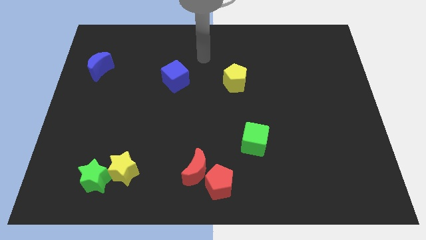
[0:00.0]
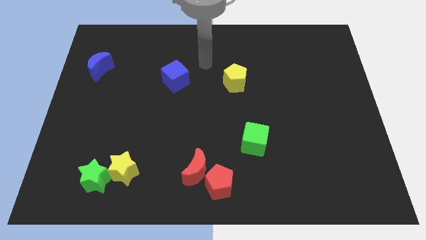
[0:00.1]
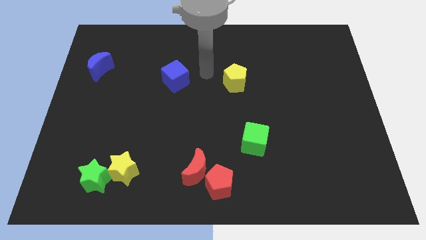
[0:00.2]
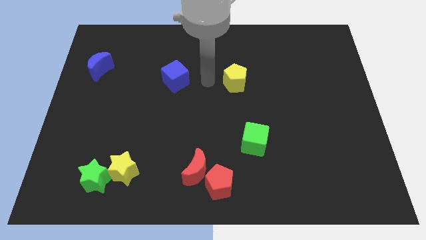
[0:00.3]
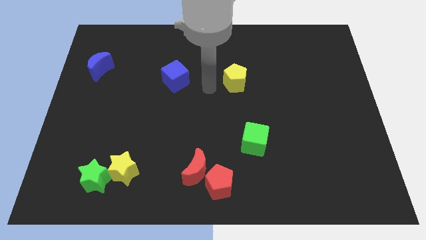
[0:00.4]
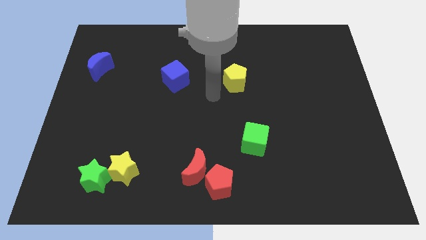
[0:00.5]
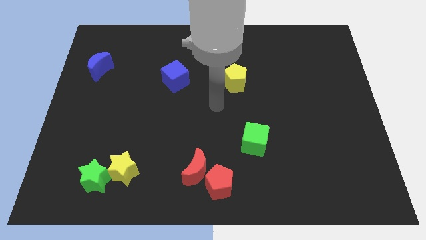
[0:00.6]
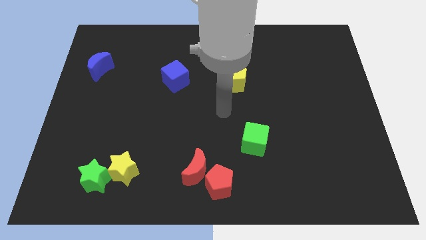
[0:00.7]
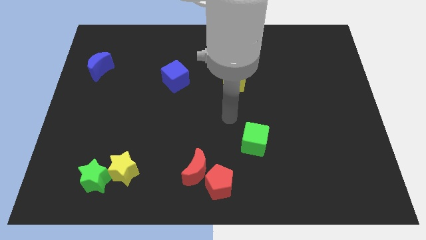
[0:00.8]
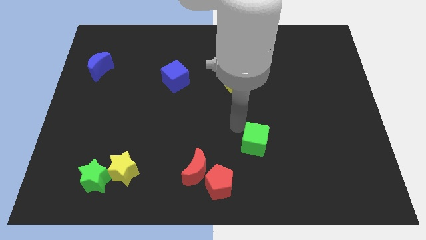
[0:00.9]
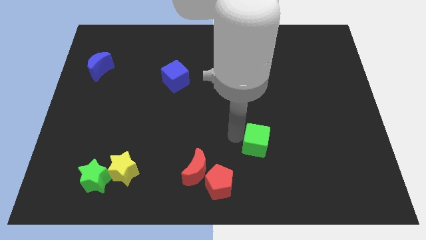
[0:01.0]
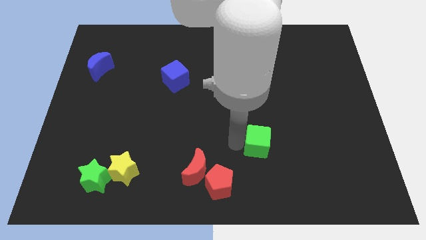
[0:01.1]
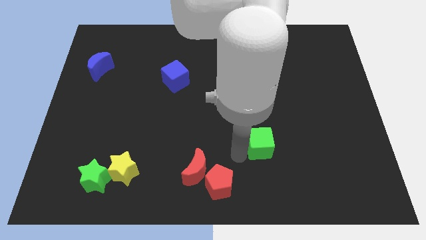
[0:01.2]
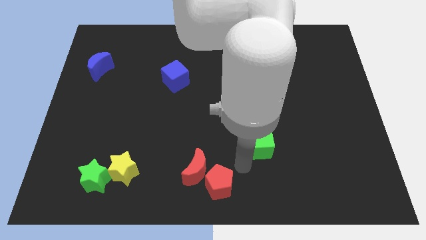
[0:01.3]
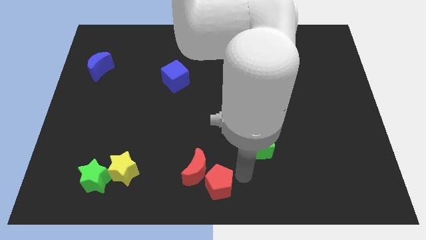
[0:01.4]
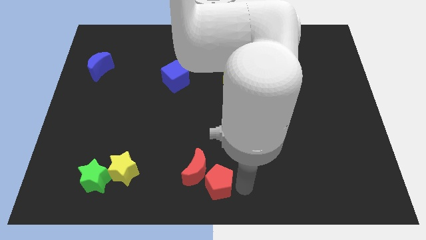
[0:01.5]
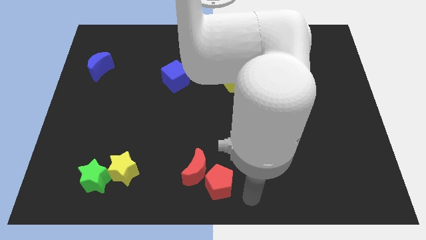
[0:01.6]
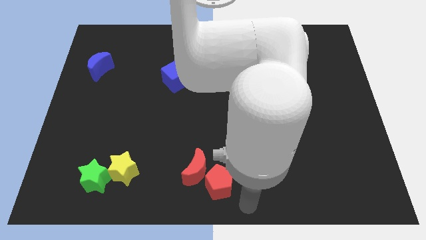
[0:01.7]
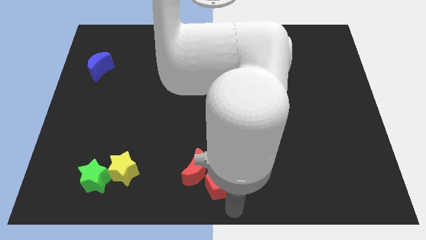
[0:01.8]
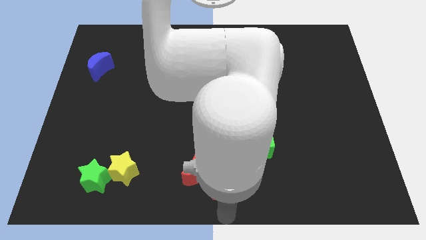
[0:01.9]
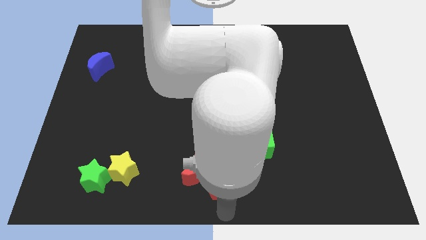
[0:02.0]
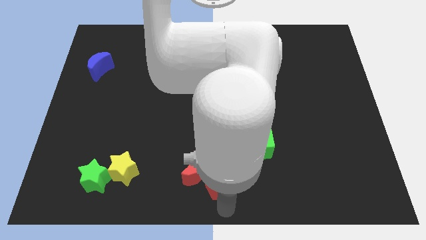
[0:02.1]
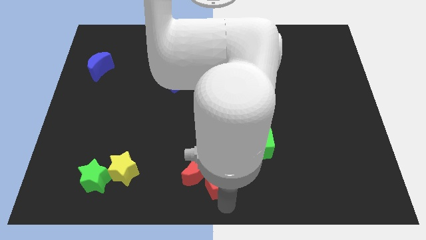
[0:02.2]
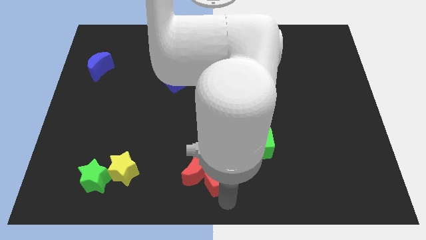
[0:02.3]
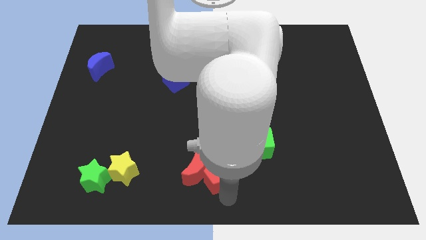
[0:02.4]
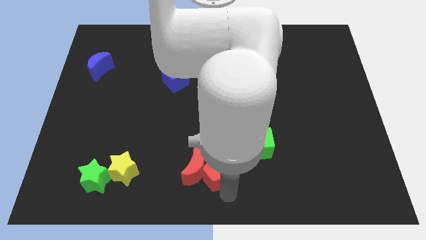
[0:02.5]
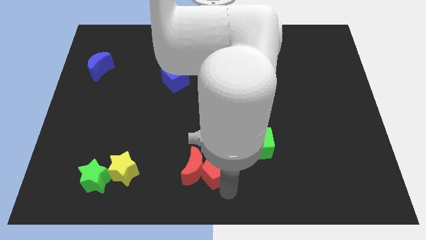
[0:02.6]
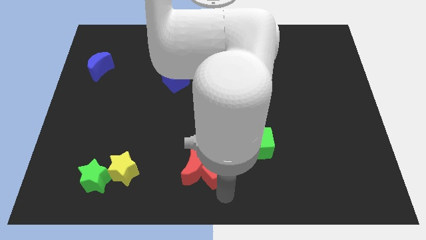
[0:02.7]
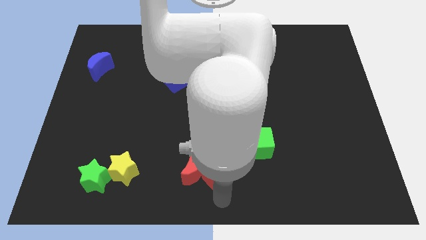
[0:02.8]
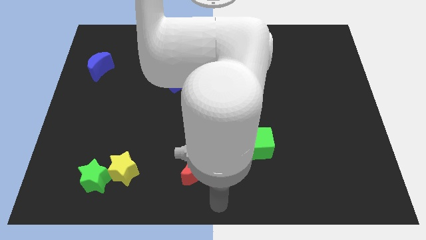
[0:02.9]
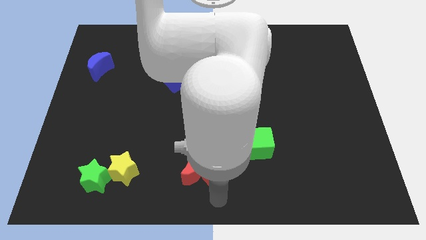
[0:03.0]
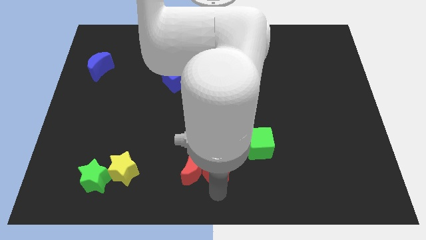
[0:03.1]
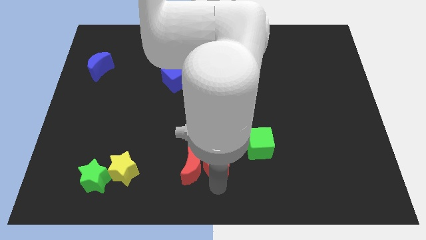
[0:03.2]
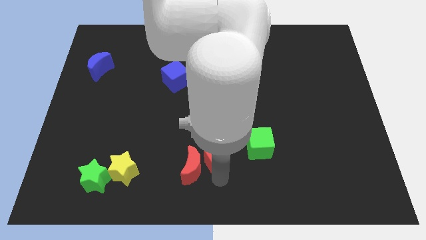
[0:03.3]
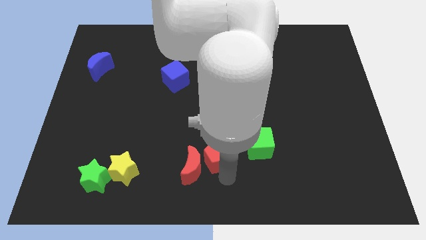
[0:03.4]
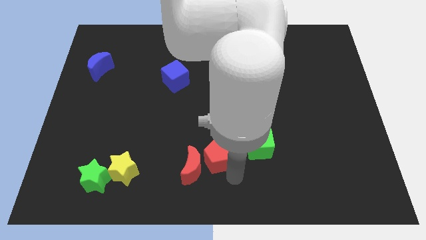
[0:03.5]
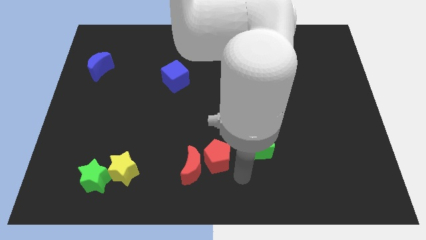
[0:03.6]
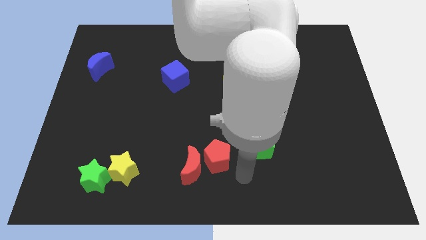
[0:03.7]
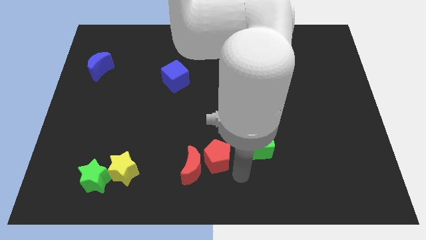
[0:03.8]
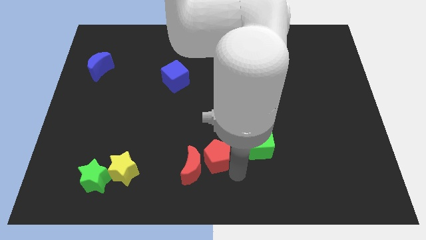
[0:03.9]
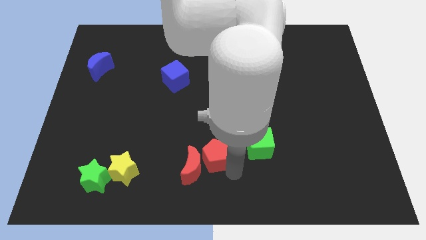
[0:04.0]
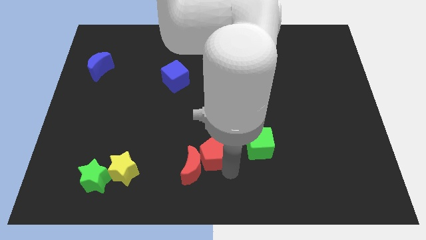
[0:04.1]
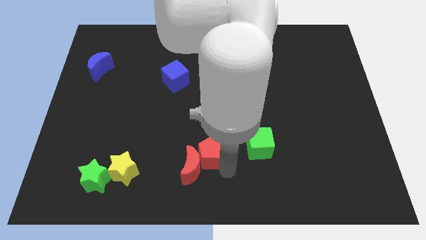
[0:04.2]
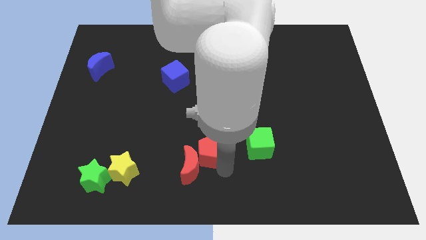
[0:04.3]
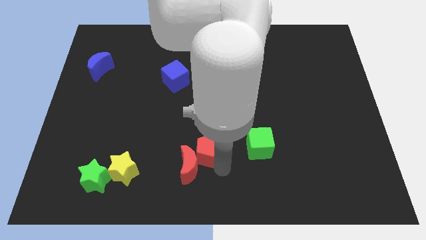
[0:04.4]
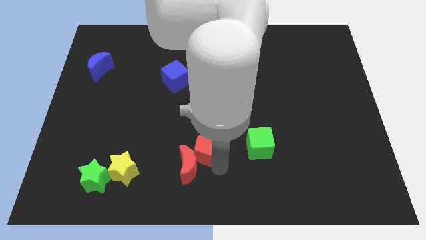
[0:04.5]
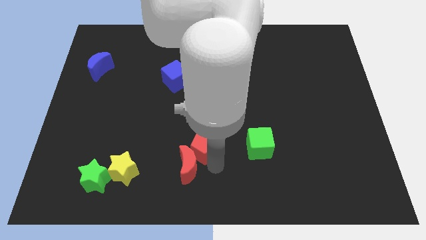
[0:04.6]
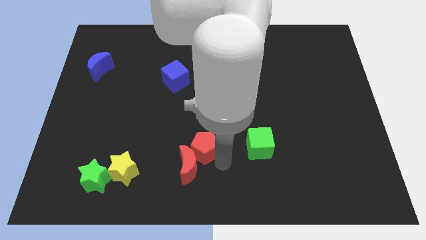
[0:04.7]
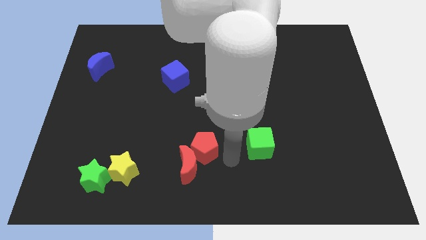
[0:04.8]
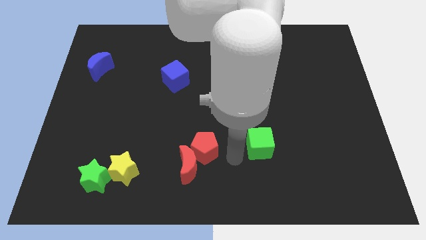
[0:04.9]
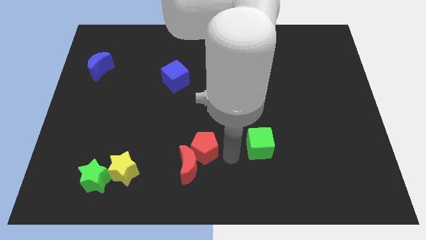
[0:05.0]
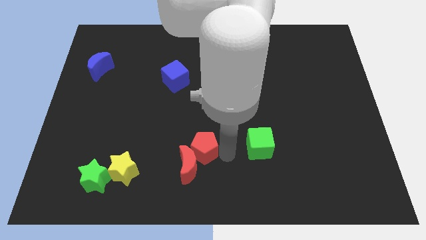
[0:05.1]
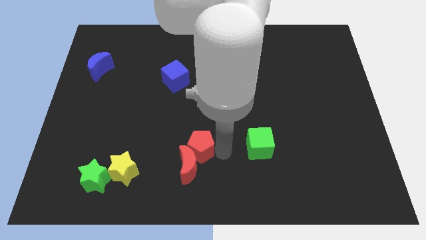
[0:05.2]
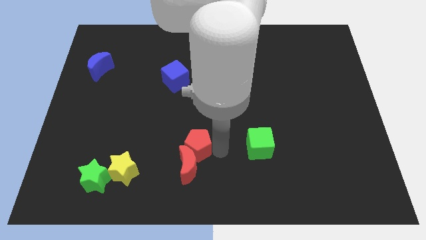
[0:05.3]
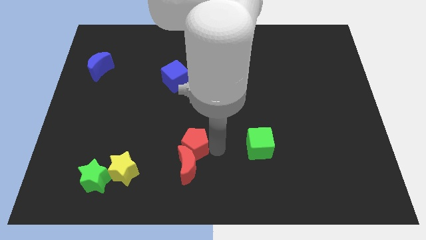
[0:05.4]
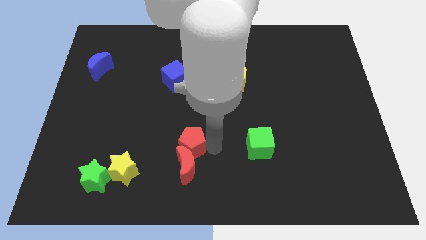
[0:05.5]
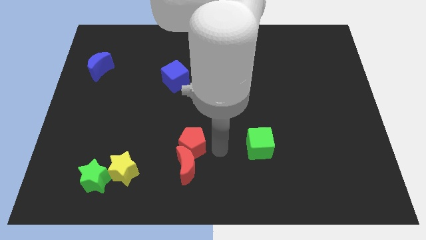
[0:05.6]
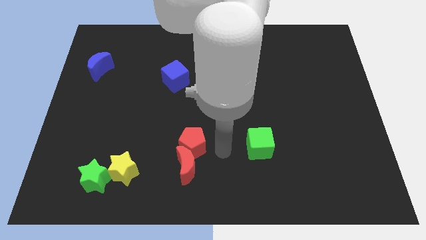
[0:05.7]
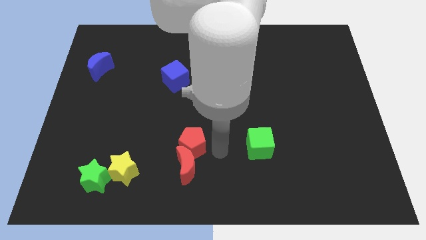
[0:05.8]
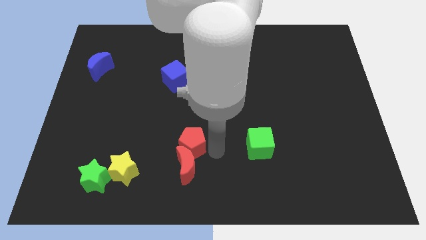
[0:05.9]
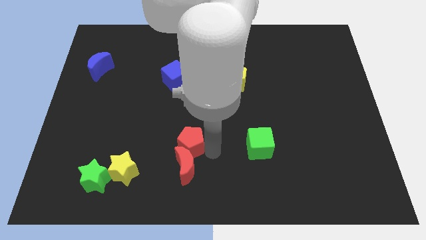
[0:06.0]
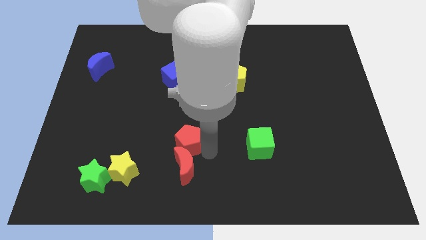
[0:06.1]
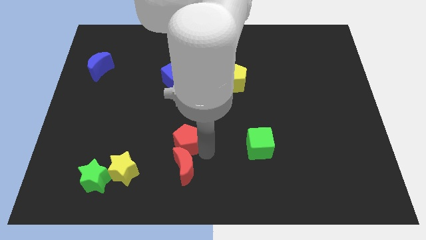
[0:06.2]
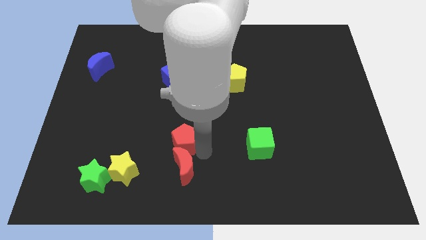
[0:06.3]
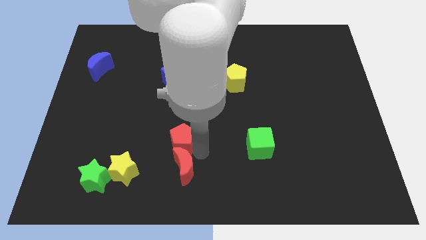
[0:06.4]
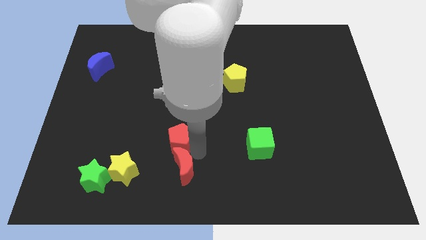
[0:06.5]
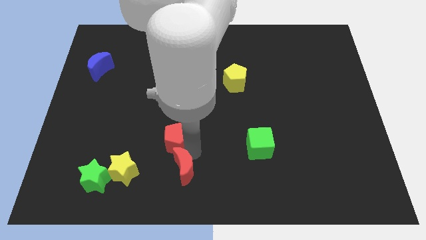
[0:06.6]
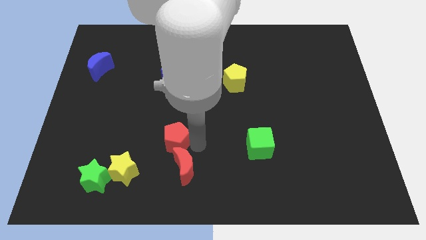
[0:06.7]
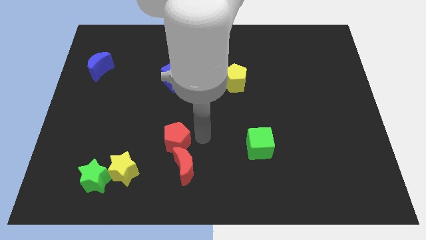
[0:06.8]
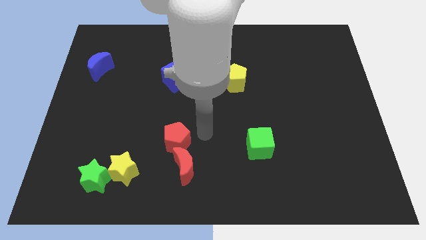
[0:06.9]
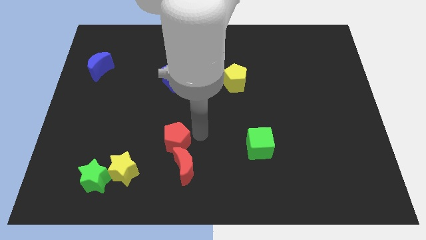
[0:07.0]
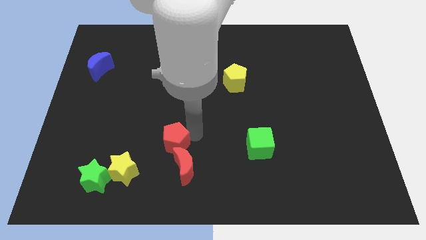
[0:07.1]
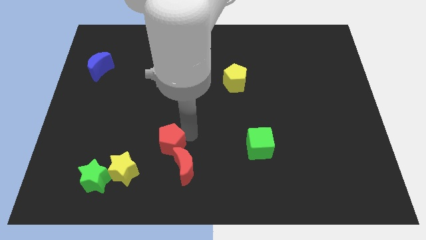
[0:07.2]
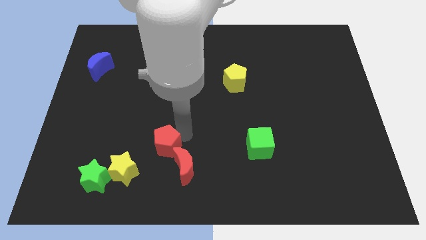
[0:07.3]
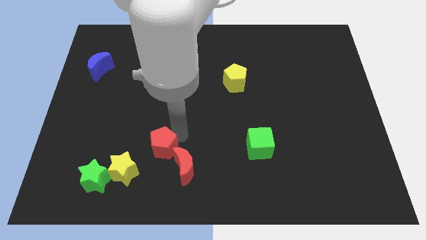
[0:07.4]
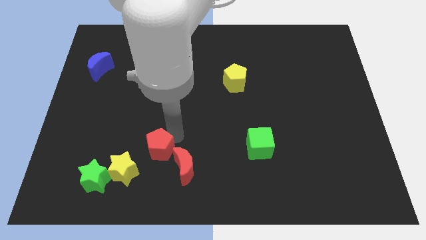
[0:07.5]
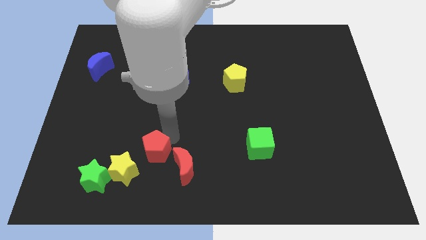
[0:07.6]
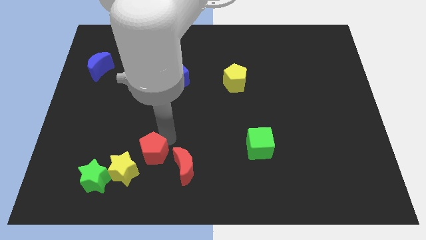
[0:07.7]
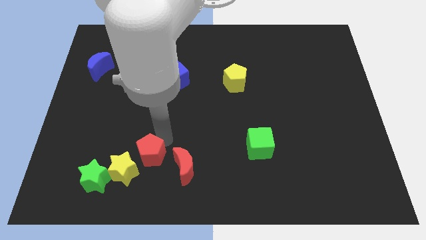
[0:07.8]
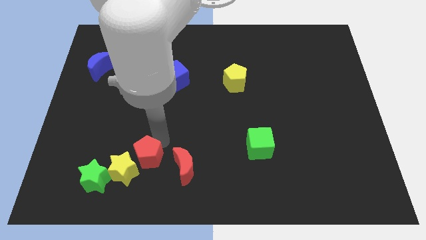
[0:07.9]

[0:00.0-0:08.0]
move the red pentagon to the top right of the green star
